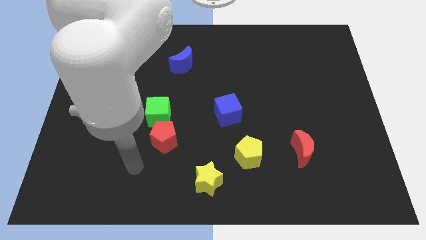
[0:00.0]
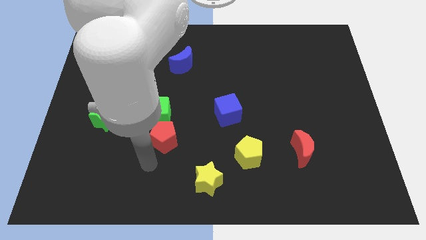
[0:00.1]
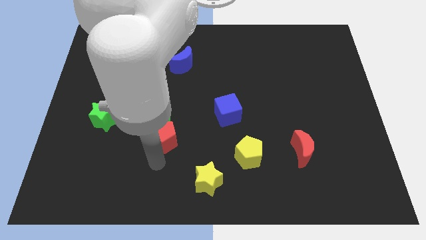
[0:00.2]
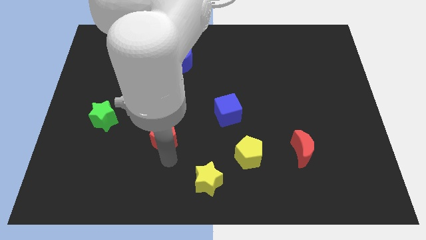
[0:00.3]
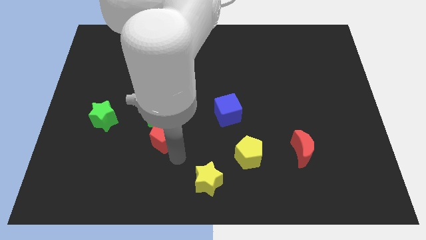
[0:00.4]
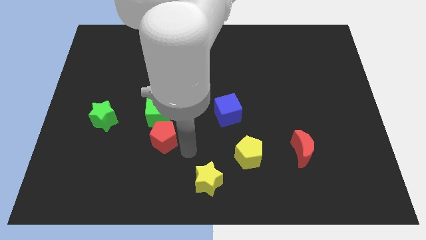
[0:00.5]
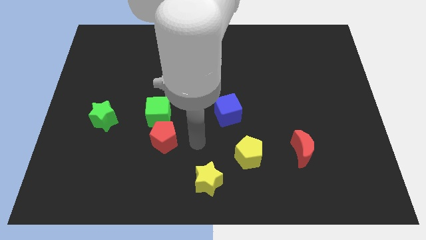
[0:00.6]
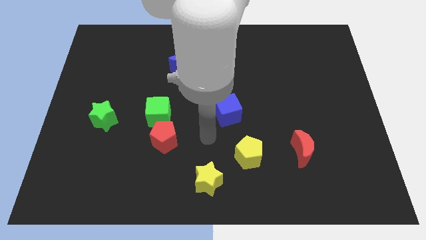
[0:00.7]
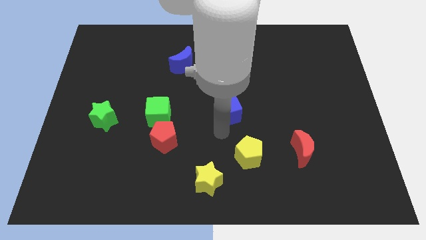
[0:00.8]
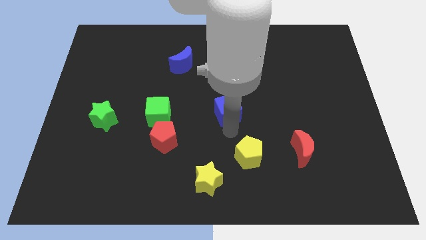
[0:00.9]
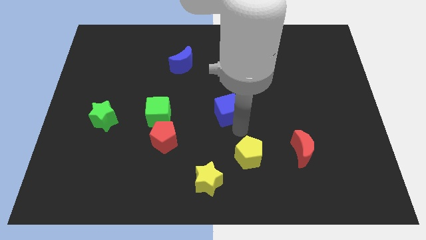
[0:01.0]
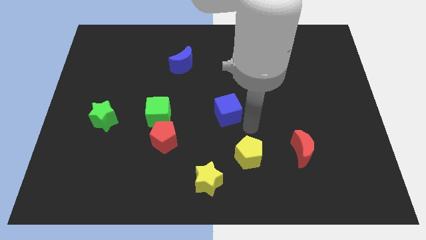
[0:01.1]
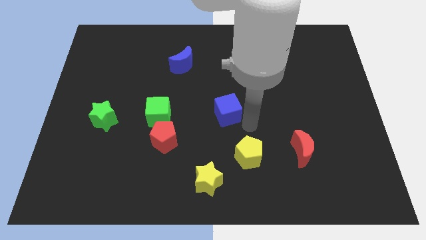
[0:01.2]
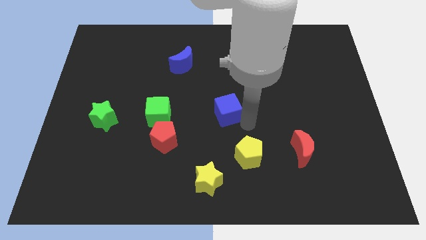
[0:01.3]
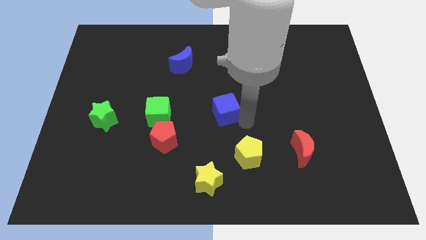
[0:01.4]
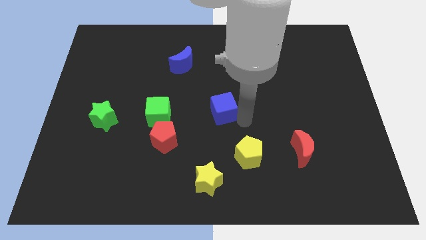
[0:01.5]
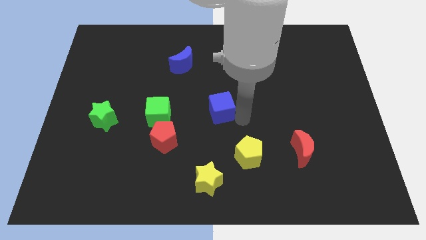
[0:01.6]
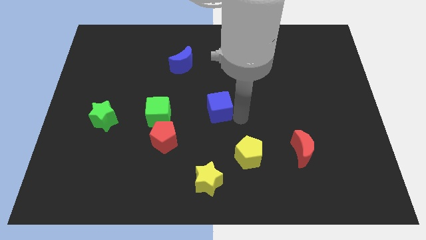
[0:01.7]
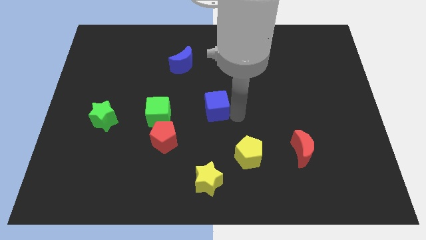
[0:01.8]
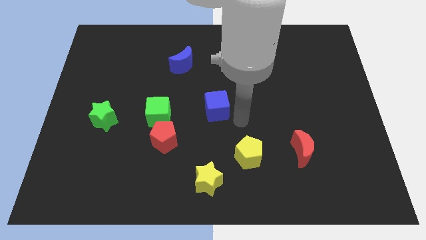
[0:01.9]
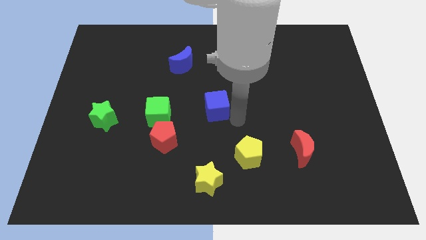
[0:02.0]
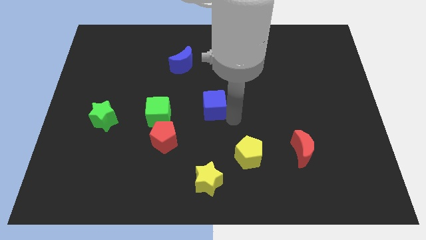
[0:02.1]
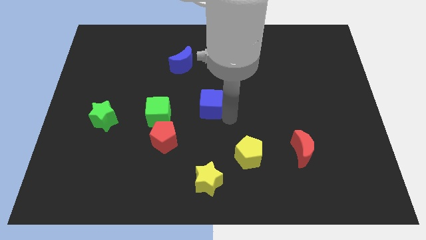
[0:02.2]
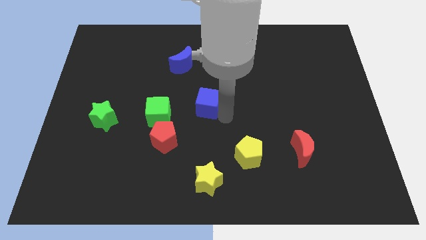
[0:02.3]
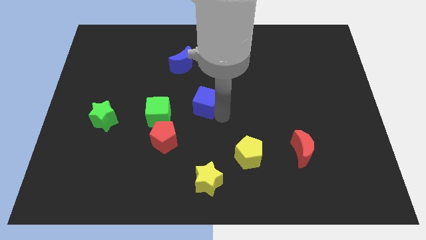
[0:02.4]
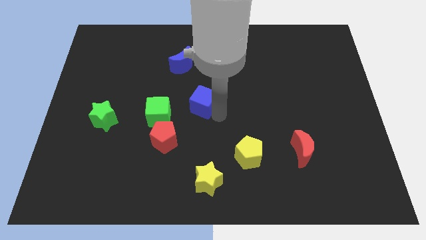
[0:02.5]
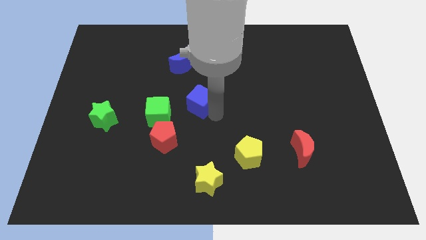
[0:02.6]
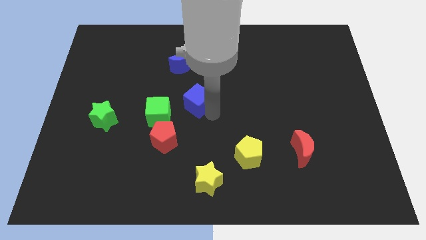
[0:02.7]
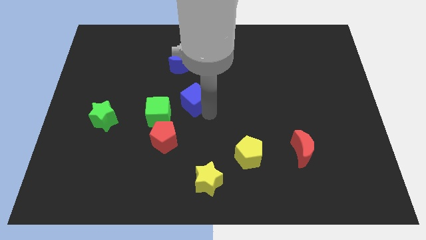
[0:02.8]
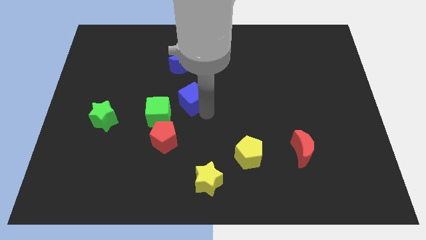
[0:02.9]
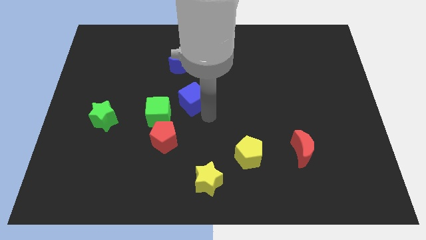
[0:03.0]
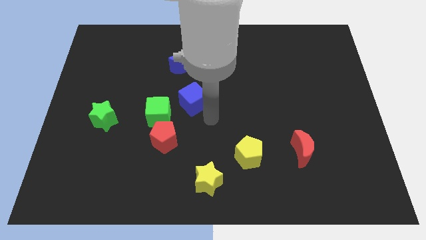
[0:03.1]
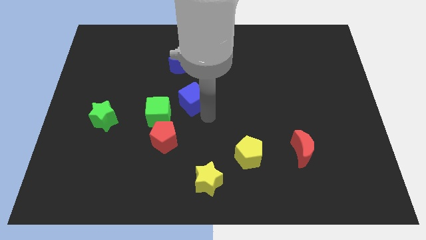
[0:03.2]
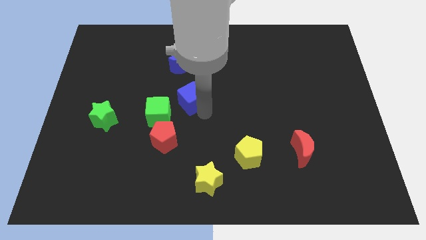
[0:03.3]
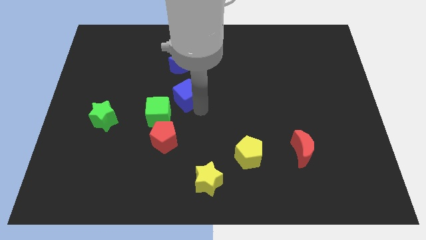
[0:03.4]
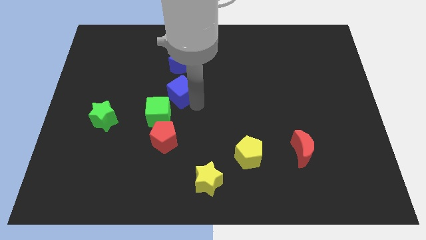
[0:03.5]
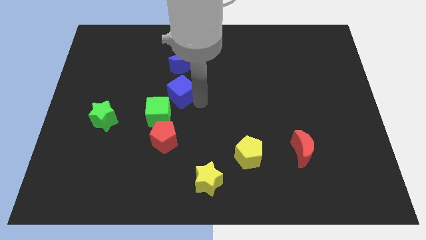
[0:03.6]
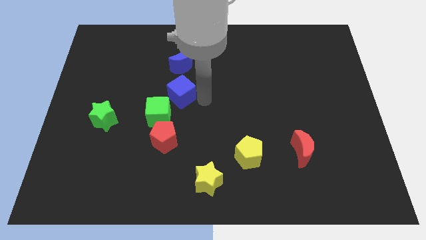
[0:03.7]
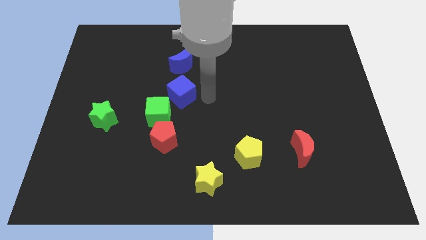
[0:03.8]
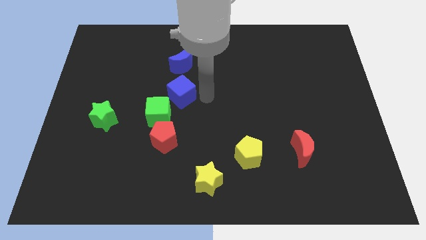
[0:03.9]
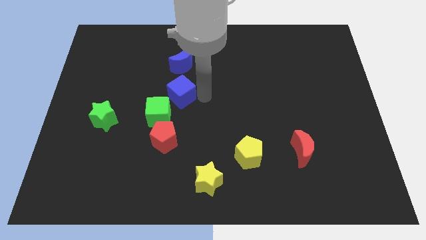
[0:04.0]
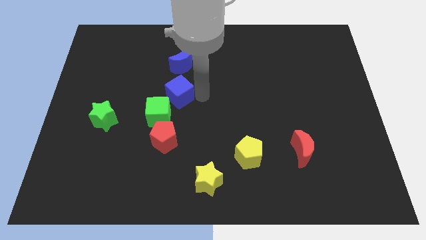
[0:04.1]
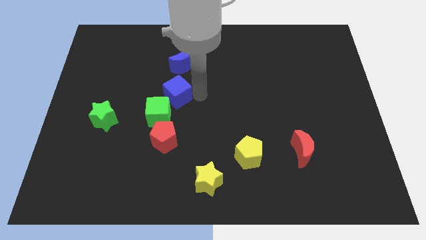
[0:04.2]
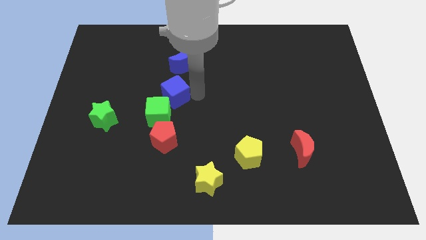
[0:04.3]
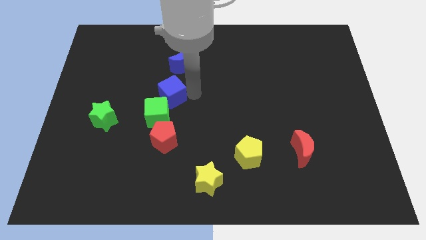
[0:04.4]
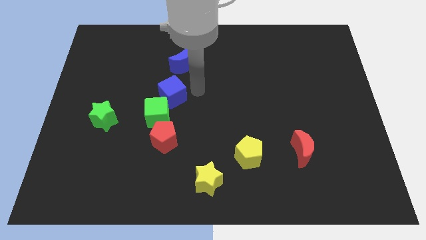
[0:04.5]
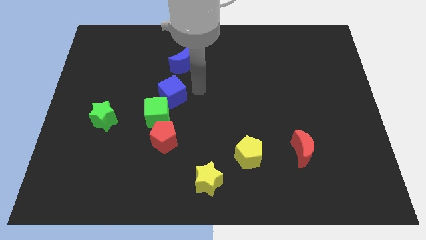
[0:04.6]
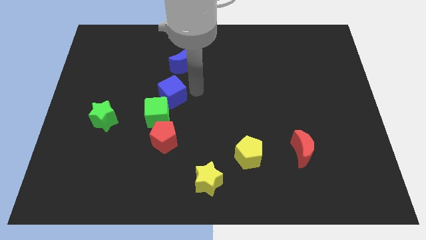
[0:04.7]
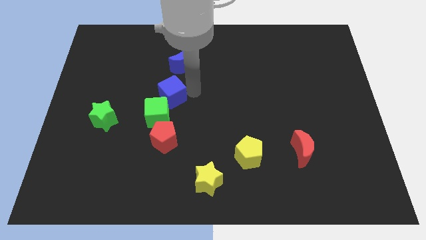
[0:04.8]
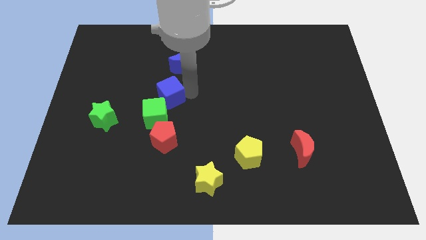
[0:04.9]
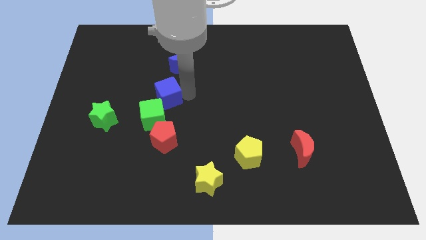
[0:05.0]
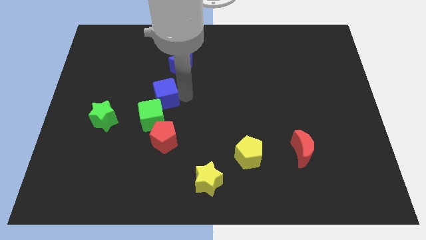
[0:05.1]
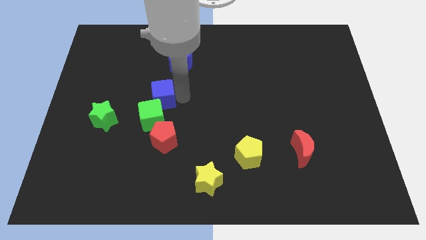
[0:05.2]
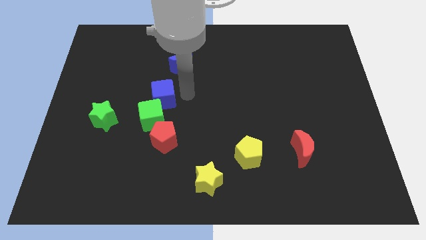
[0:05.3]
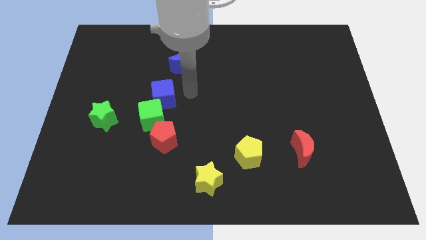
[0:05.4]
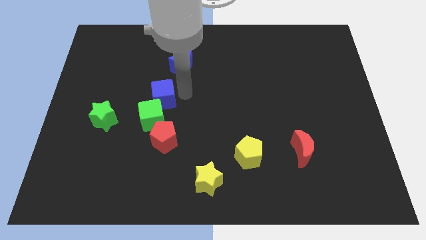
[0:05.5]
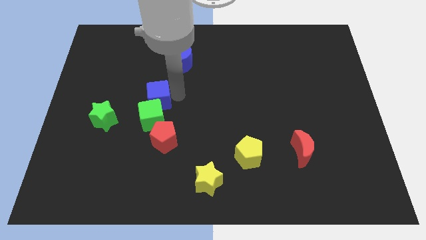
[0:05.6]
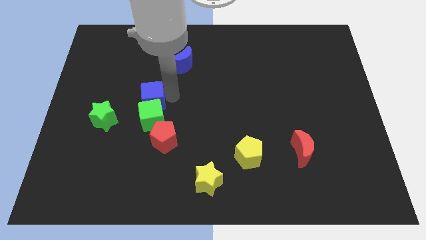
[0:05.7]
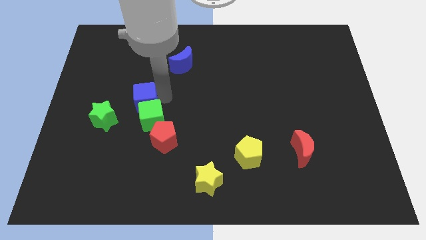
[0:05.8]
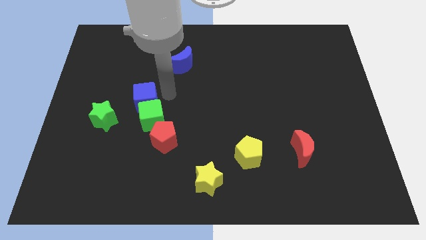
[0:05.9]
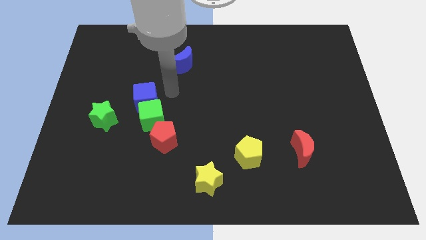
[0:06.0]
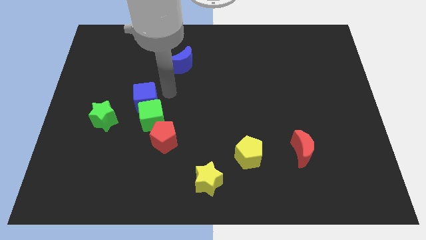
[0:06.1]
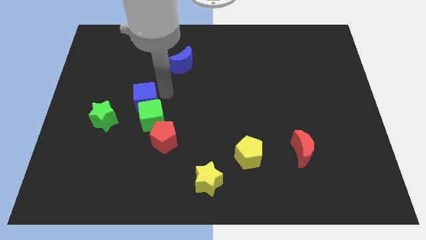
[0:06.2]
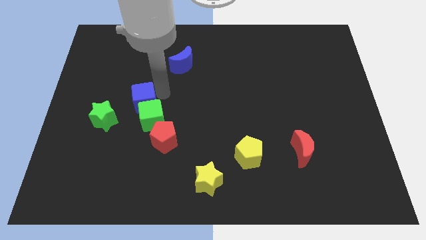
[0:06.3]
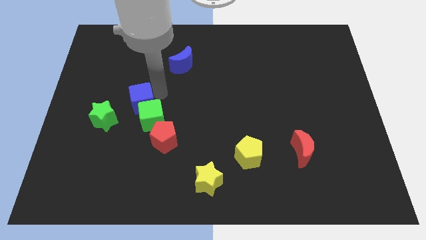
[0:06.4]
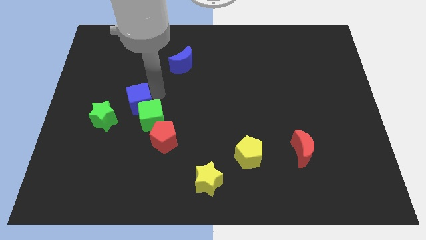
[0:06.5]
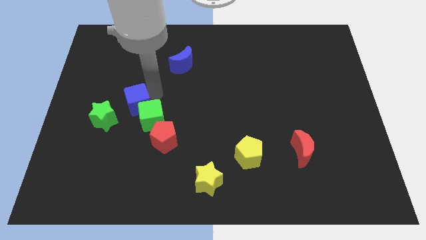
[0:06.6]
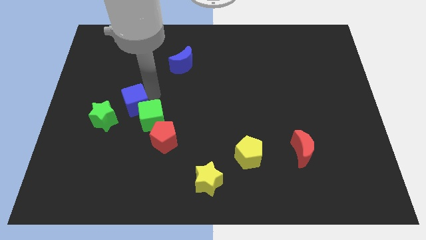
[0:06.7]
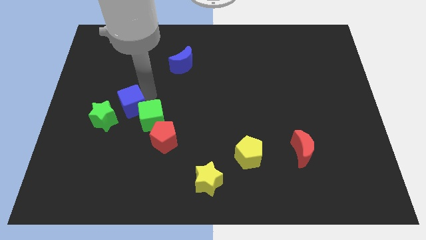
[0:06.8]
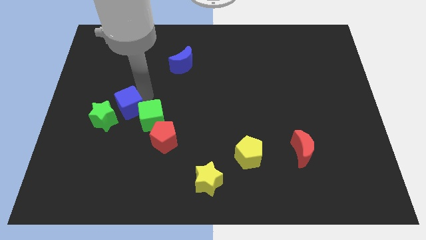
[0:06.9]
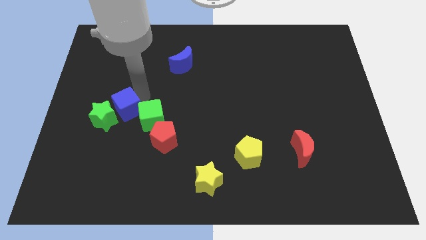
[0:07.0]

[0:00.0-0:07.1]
put the blue cube to the green star
